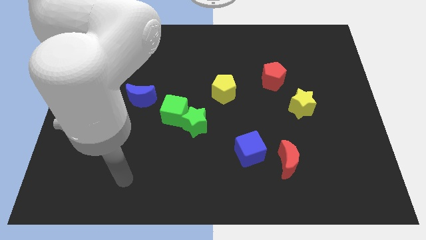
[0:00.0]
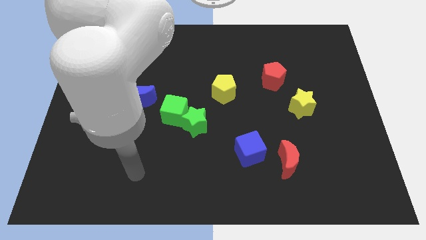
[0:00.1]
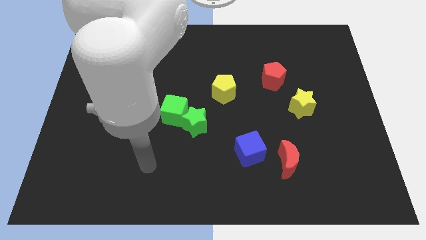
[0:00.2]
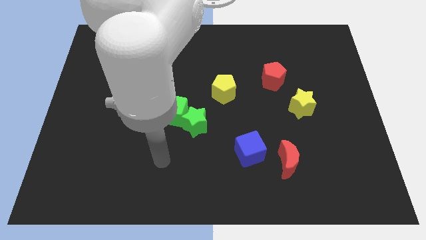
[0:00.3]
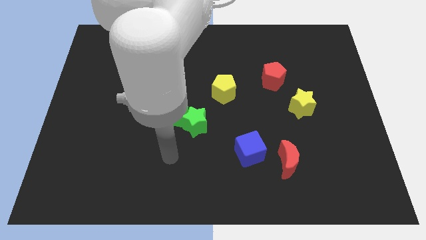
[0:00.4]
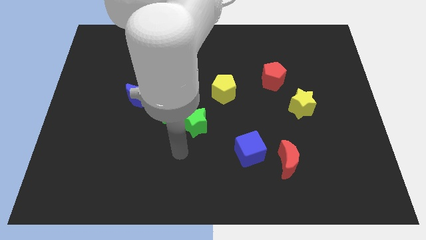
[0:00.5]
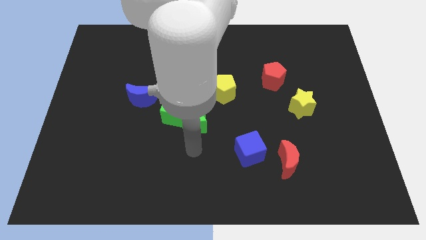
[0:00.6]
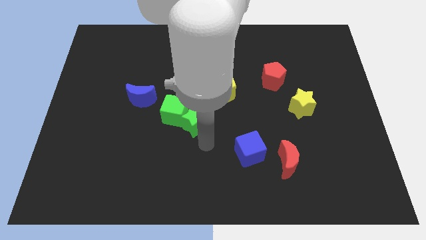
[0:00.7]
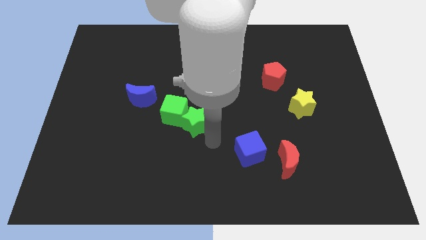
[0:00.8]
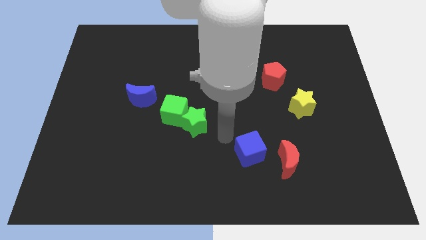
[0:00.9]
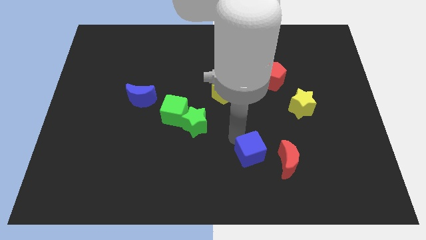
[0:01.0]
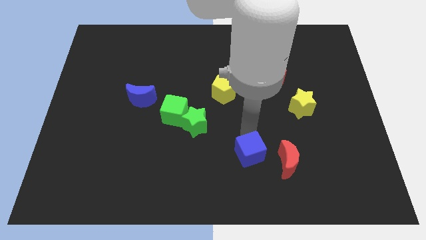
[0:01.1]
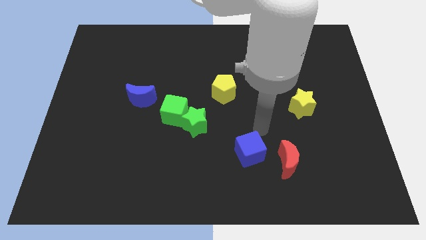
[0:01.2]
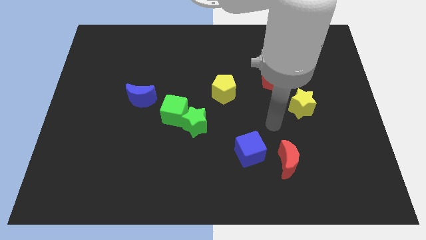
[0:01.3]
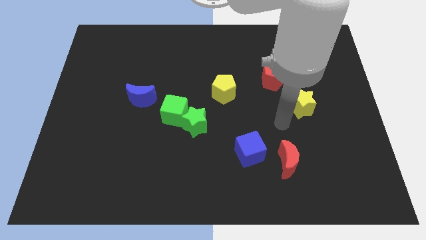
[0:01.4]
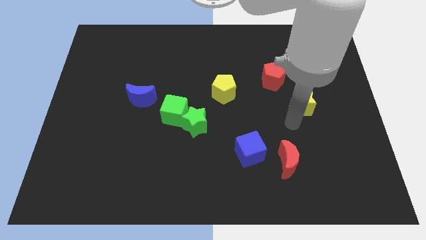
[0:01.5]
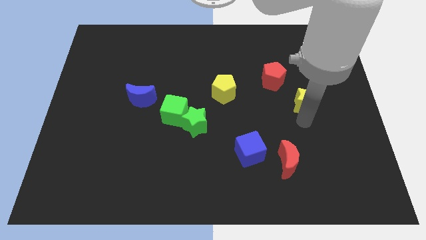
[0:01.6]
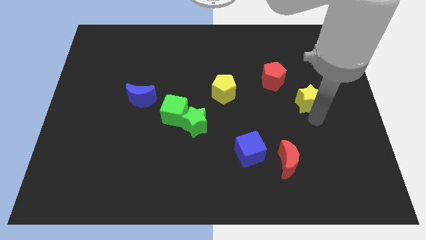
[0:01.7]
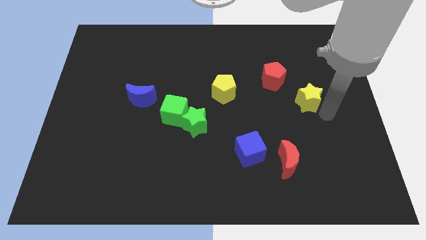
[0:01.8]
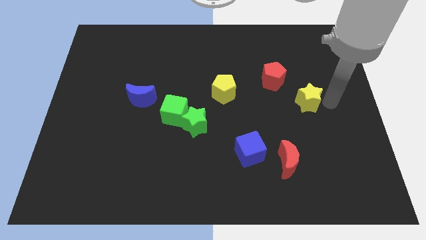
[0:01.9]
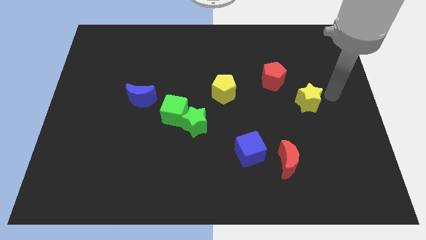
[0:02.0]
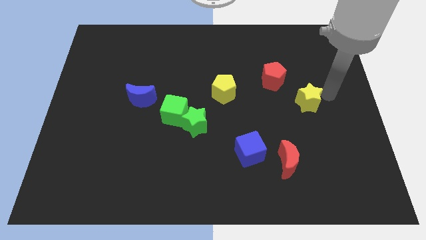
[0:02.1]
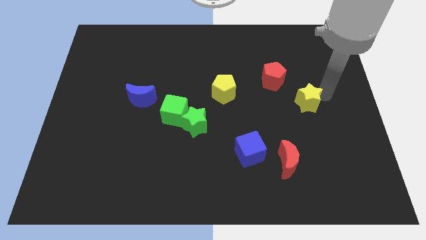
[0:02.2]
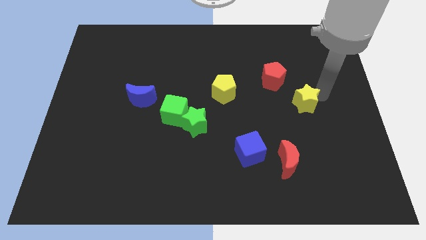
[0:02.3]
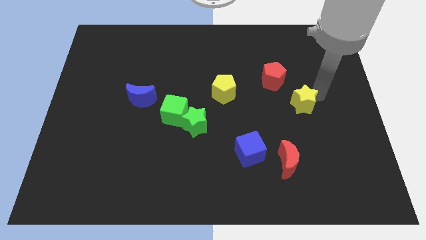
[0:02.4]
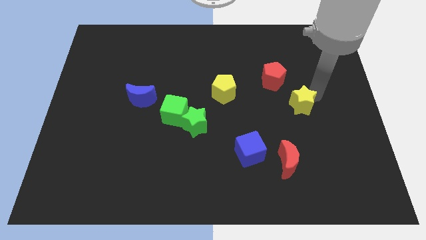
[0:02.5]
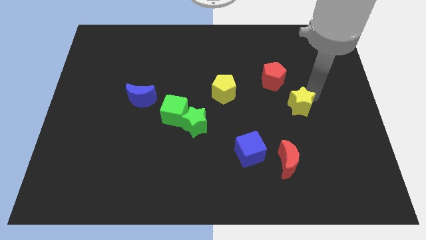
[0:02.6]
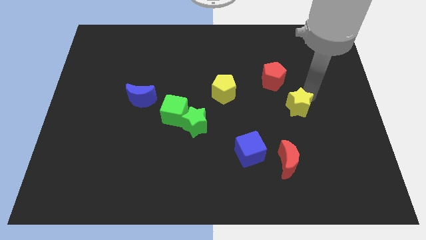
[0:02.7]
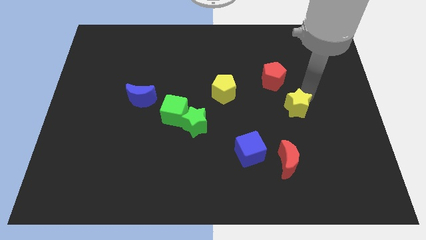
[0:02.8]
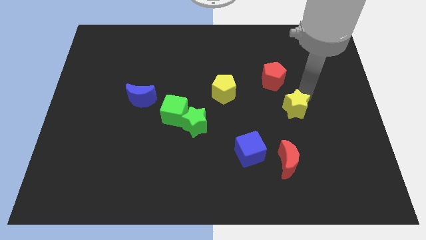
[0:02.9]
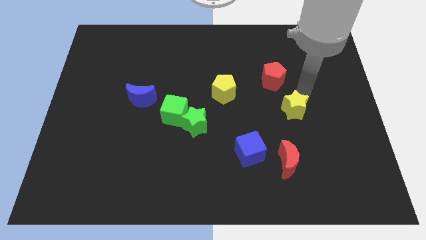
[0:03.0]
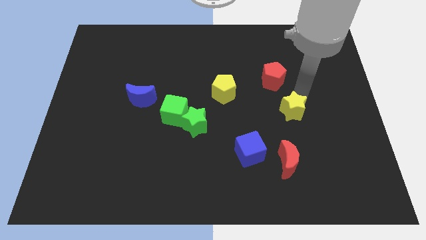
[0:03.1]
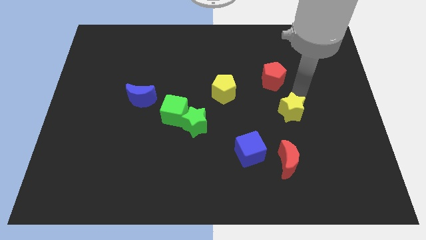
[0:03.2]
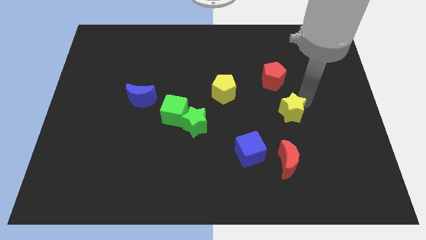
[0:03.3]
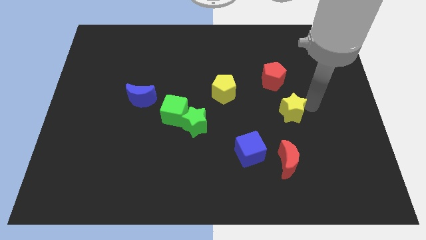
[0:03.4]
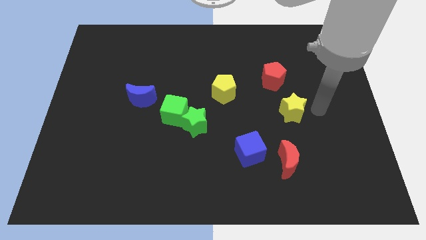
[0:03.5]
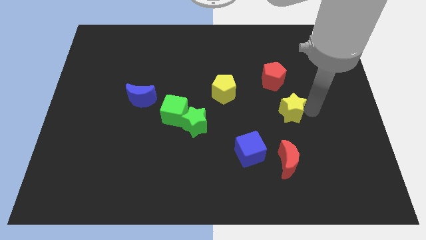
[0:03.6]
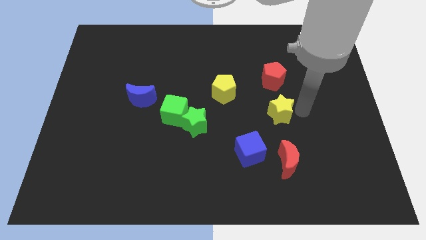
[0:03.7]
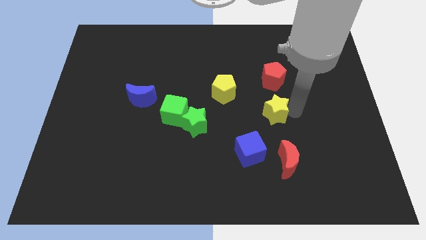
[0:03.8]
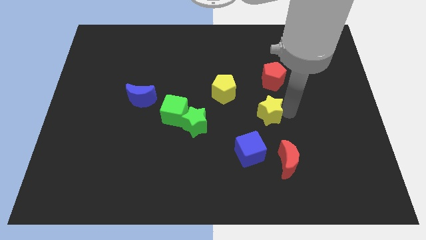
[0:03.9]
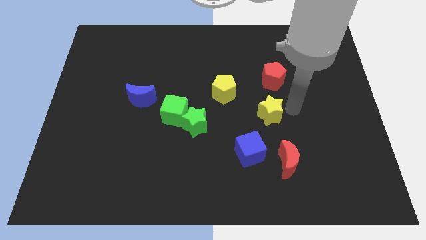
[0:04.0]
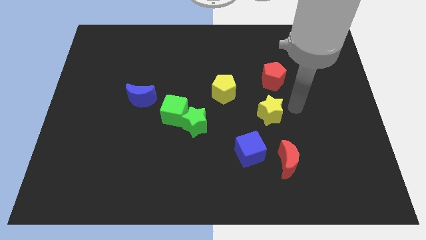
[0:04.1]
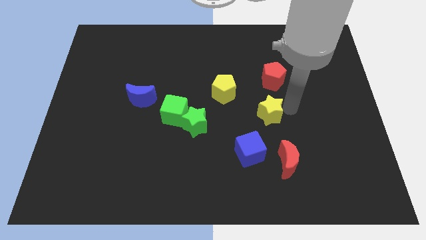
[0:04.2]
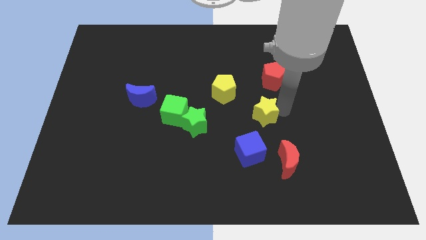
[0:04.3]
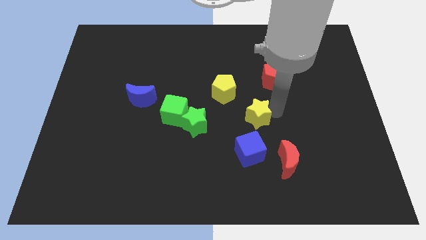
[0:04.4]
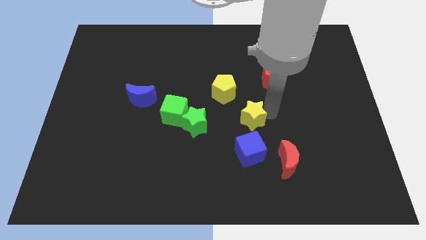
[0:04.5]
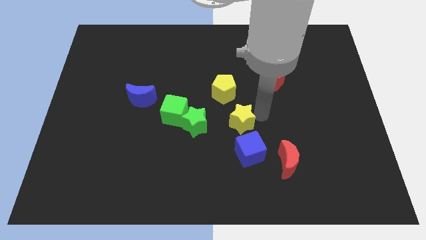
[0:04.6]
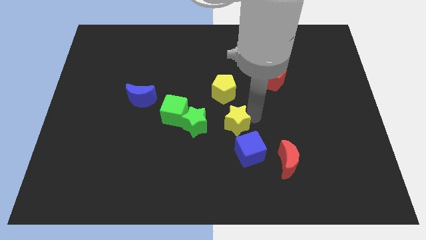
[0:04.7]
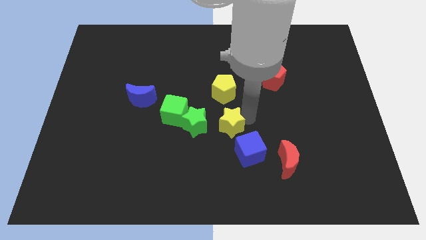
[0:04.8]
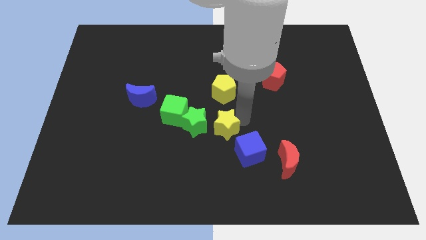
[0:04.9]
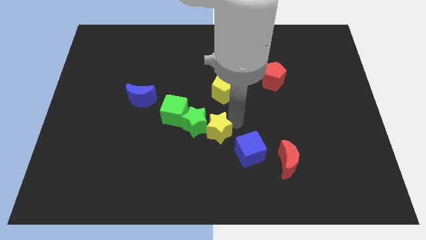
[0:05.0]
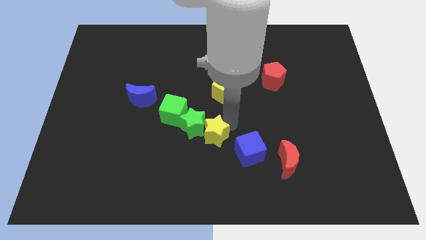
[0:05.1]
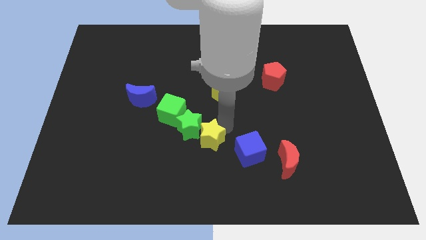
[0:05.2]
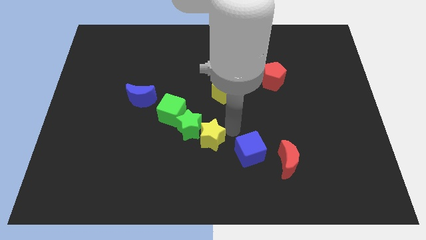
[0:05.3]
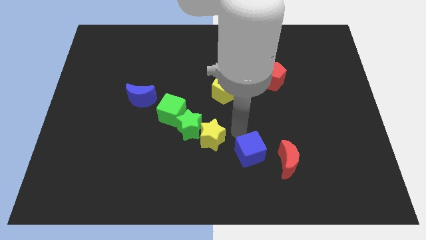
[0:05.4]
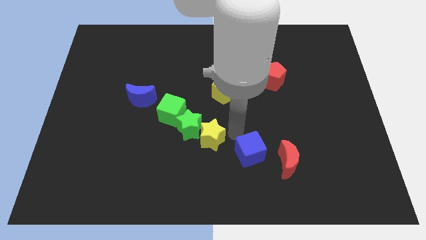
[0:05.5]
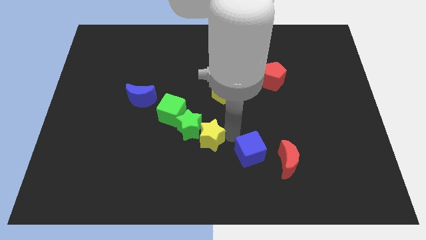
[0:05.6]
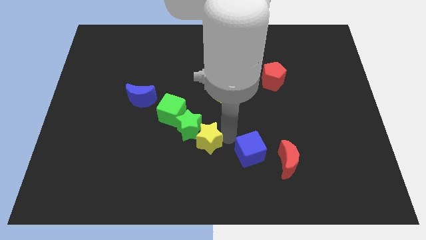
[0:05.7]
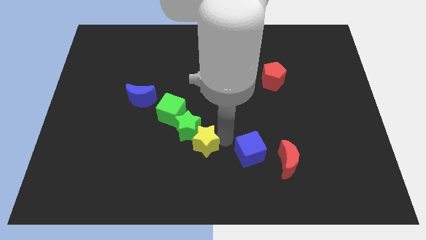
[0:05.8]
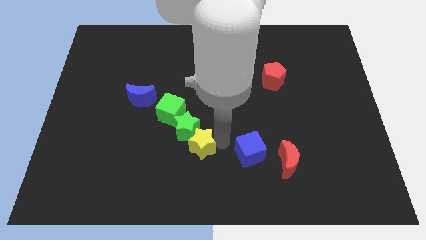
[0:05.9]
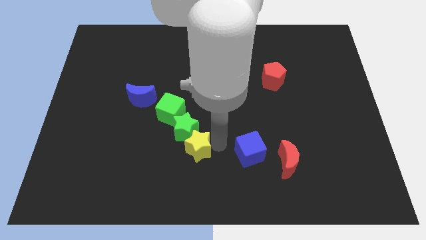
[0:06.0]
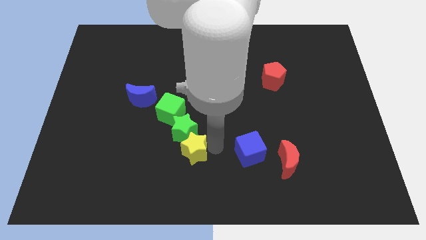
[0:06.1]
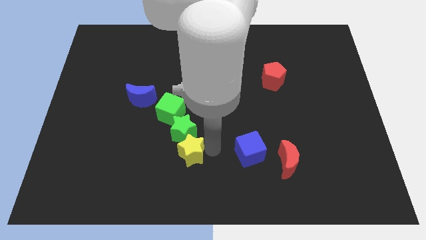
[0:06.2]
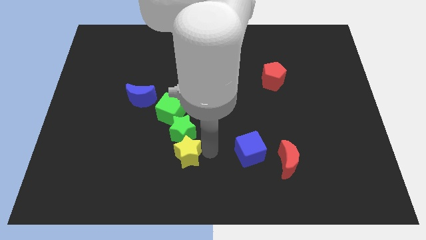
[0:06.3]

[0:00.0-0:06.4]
slide the yellow star diagonally down and to the left of the green star

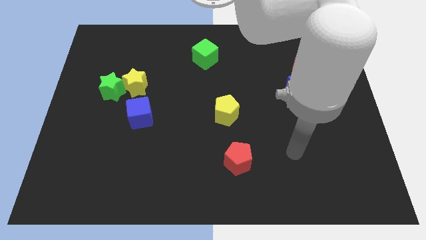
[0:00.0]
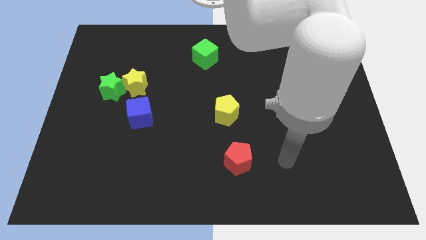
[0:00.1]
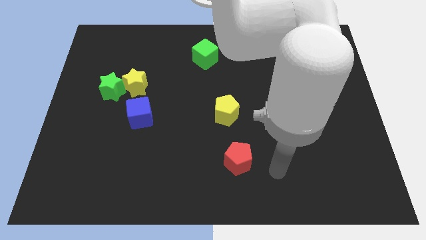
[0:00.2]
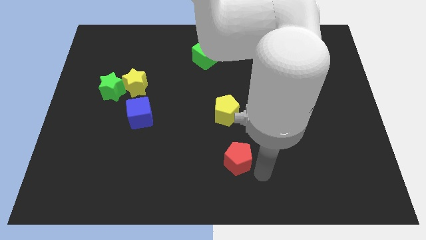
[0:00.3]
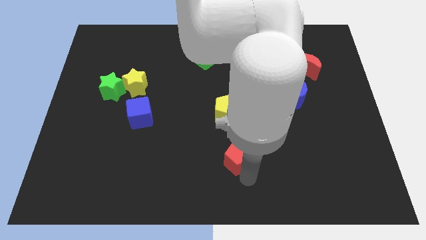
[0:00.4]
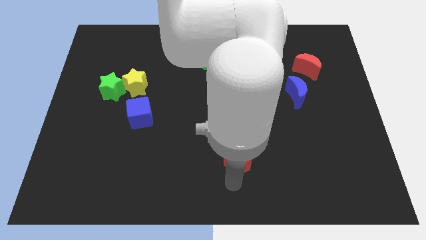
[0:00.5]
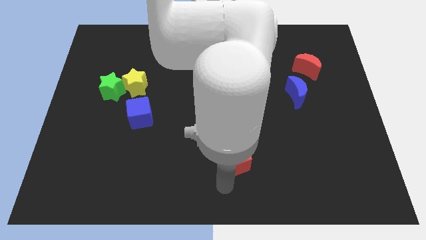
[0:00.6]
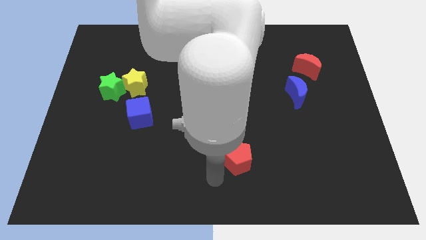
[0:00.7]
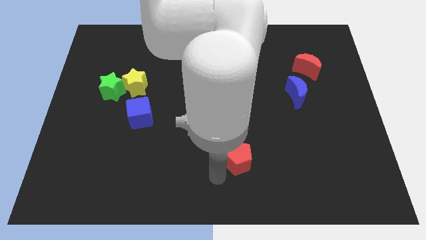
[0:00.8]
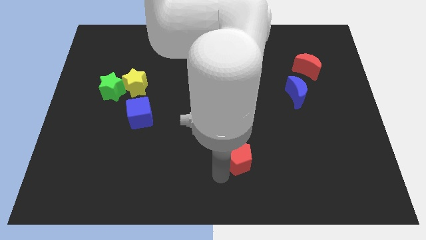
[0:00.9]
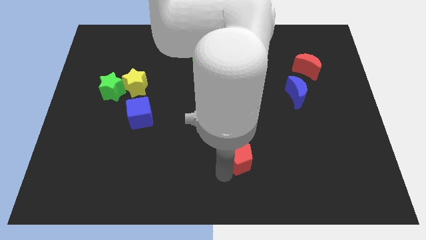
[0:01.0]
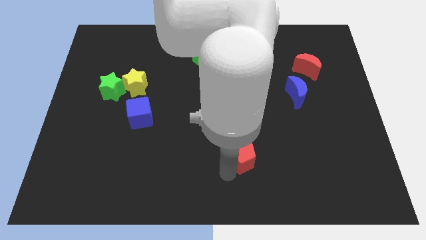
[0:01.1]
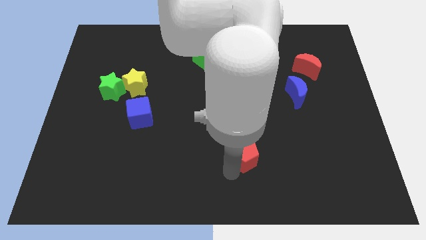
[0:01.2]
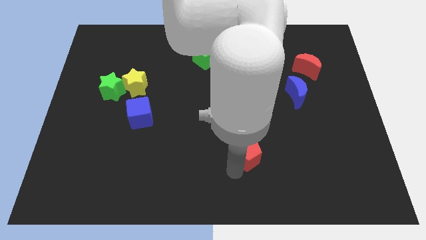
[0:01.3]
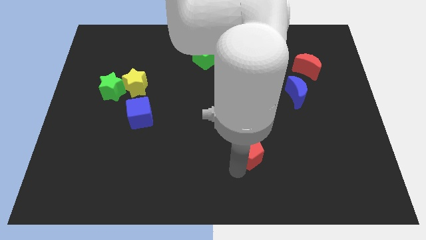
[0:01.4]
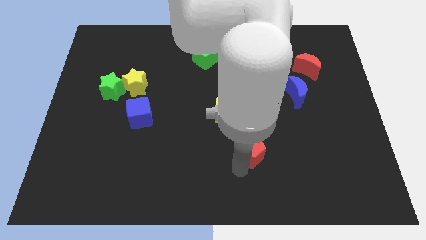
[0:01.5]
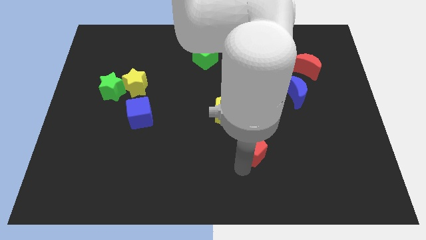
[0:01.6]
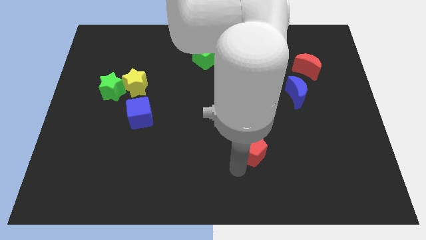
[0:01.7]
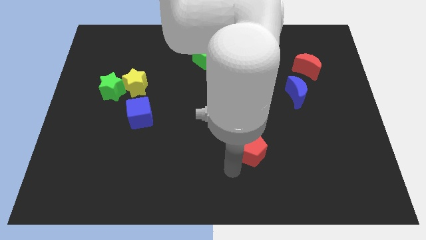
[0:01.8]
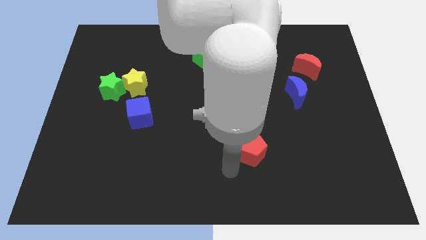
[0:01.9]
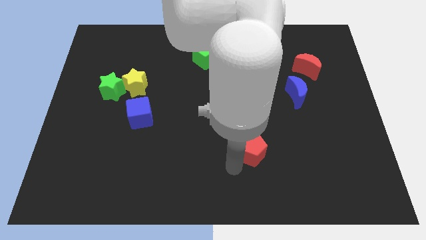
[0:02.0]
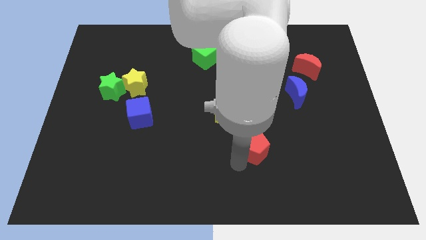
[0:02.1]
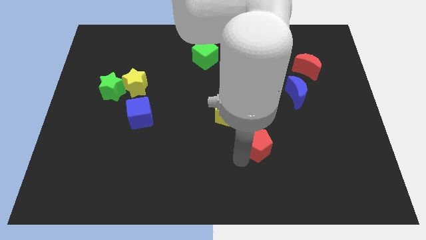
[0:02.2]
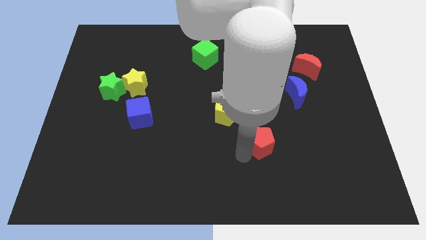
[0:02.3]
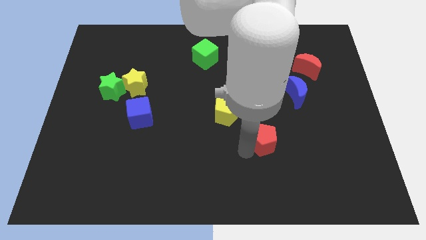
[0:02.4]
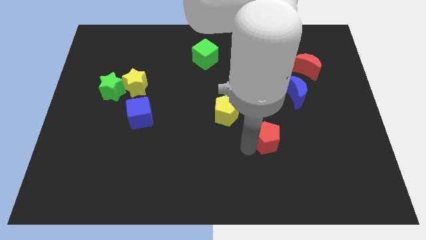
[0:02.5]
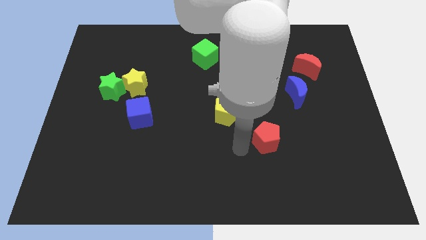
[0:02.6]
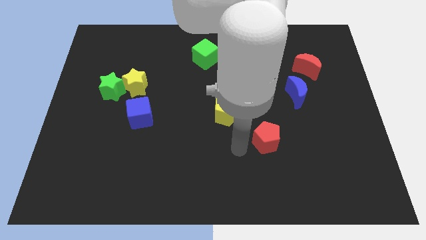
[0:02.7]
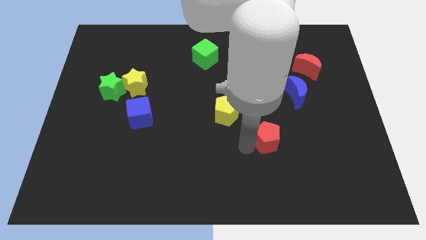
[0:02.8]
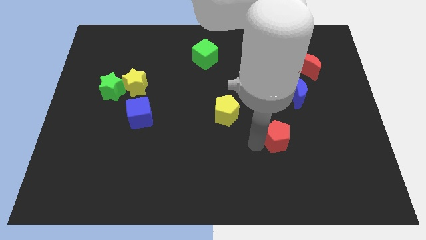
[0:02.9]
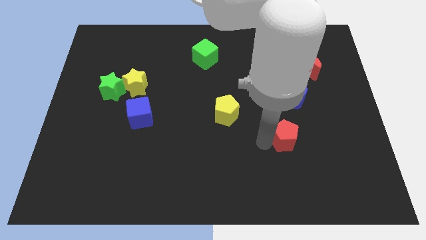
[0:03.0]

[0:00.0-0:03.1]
slide the red pentagon to the bottom side of the blue moon
